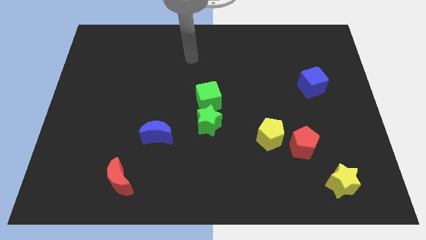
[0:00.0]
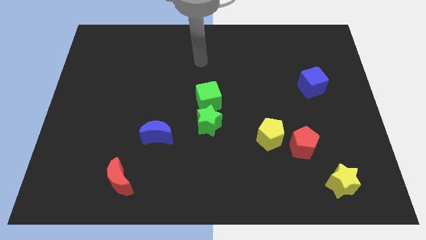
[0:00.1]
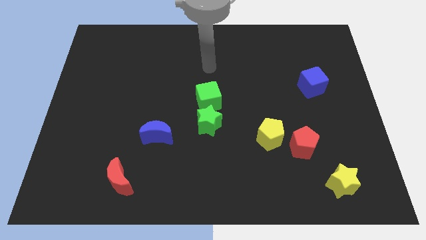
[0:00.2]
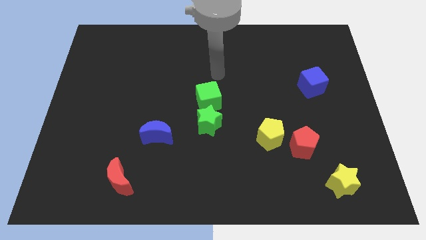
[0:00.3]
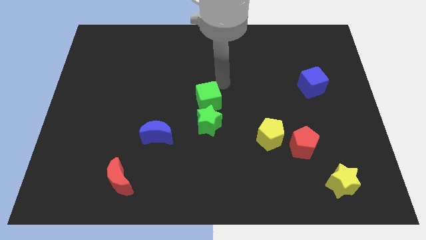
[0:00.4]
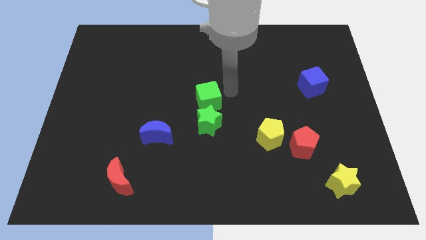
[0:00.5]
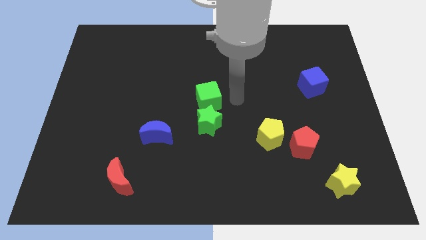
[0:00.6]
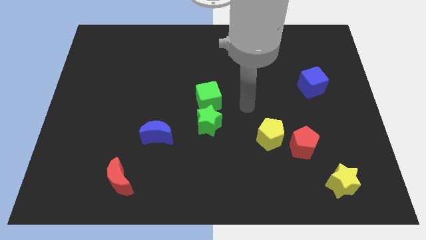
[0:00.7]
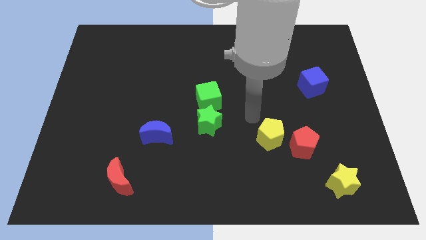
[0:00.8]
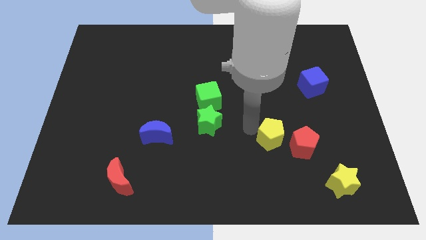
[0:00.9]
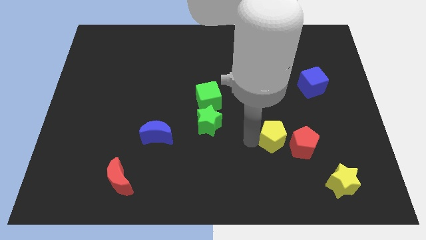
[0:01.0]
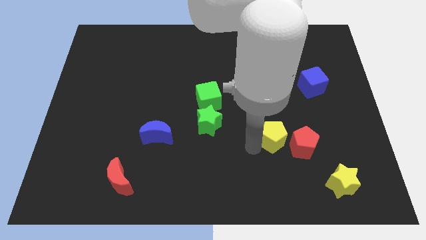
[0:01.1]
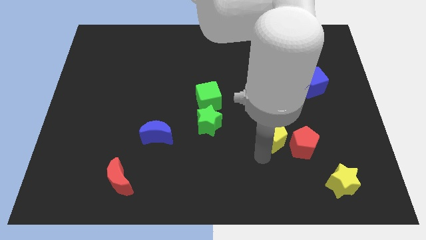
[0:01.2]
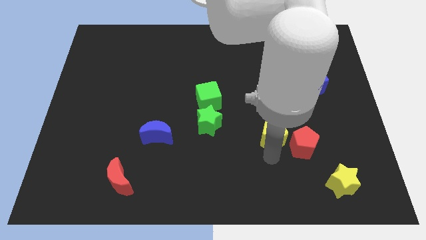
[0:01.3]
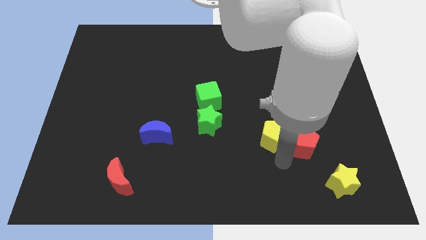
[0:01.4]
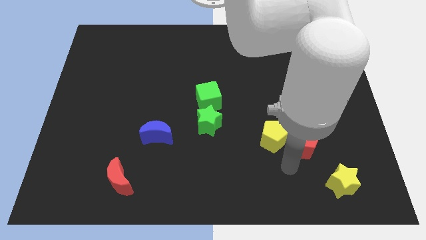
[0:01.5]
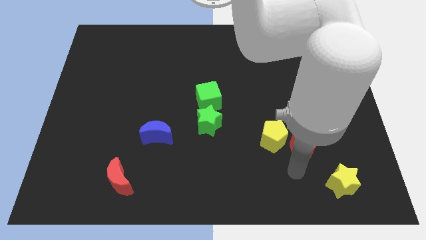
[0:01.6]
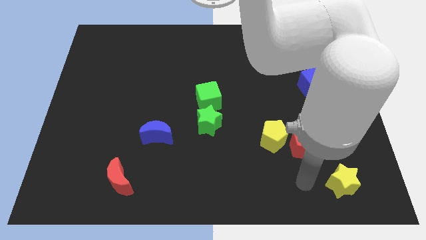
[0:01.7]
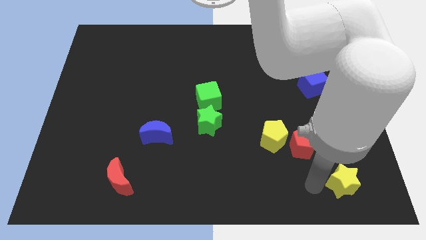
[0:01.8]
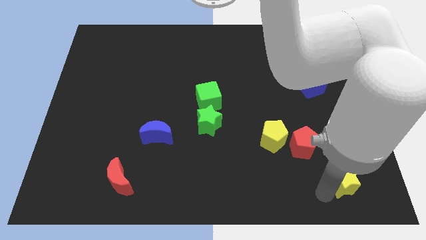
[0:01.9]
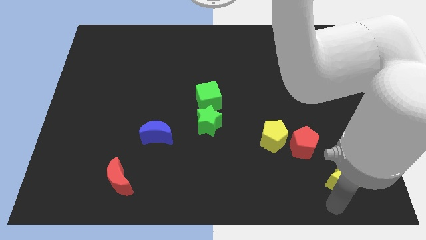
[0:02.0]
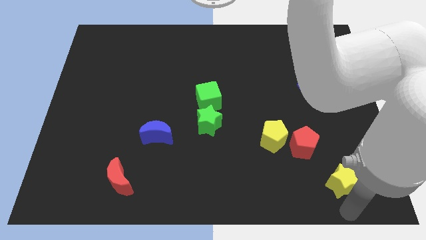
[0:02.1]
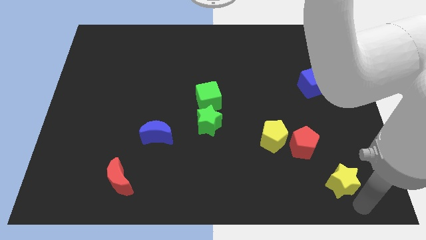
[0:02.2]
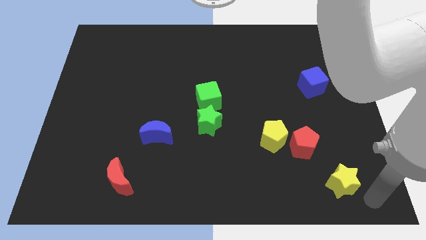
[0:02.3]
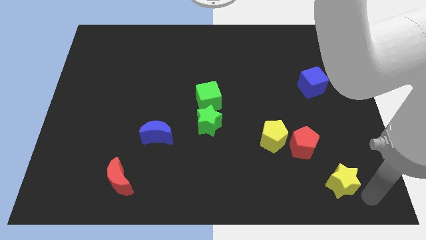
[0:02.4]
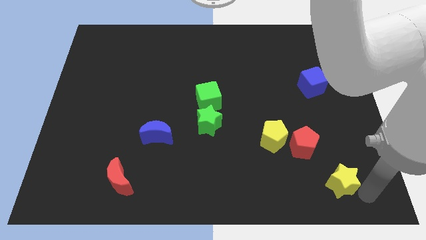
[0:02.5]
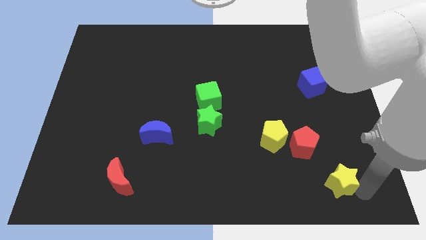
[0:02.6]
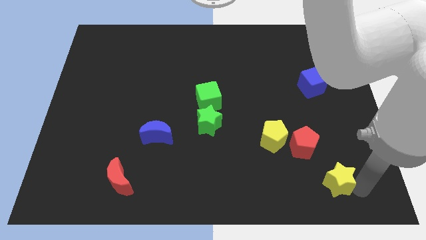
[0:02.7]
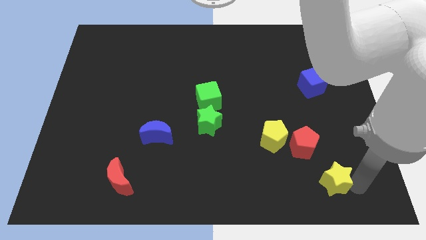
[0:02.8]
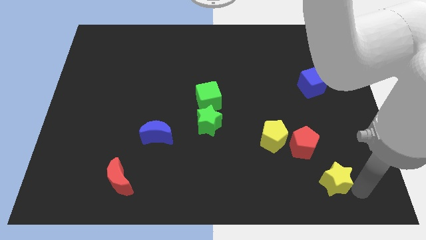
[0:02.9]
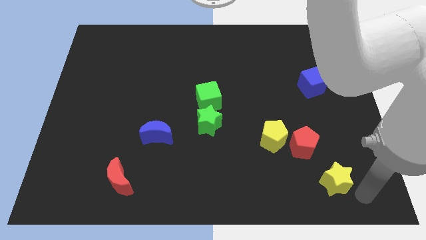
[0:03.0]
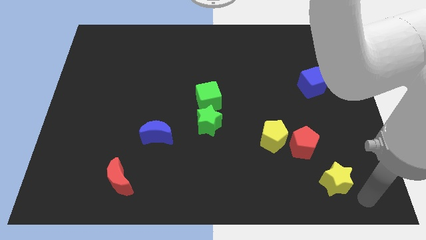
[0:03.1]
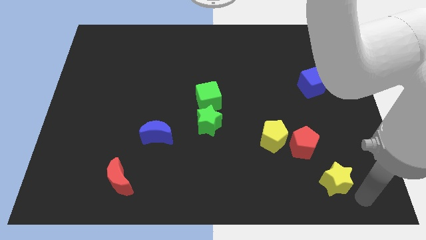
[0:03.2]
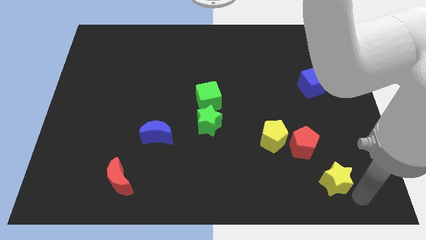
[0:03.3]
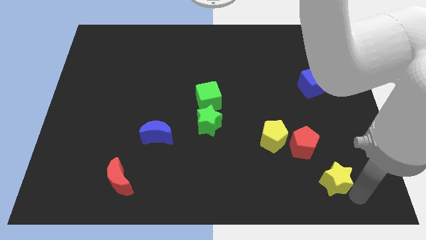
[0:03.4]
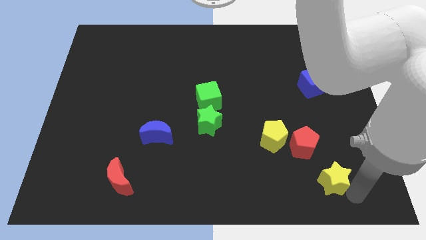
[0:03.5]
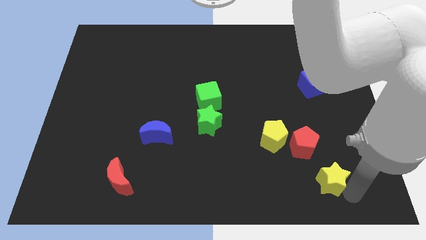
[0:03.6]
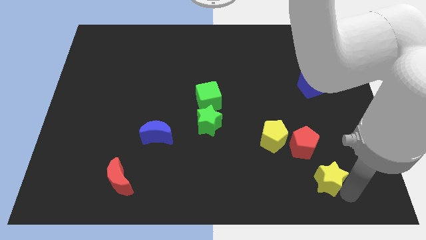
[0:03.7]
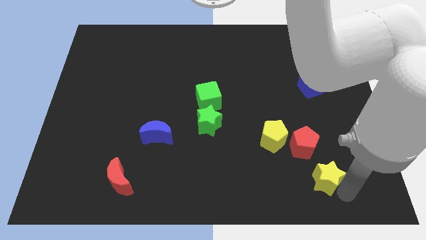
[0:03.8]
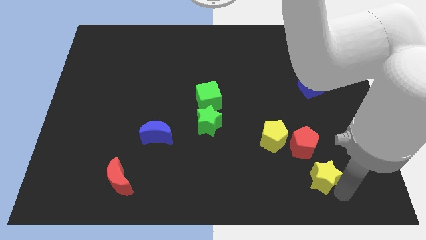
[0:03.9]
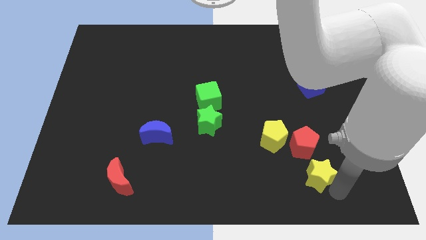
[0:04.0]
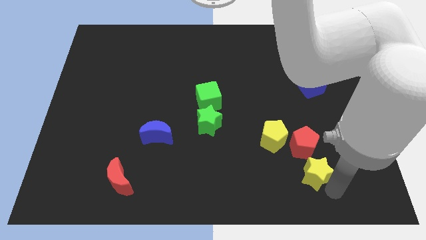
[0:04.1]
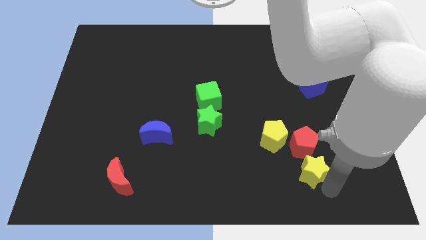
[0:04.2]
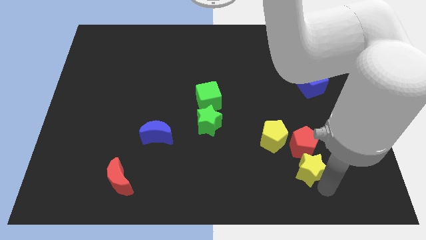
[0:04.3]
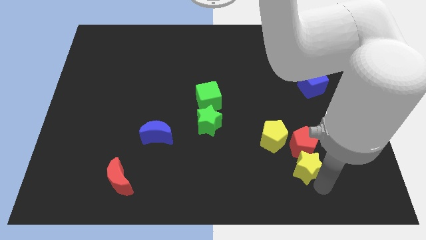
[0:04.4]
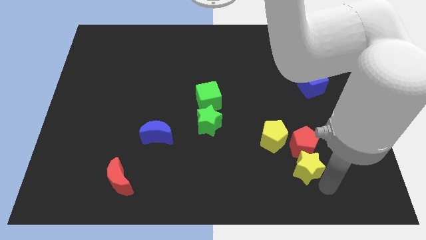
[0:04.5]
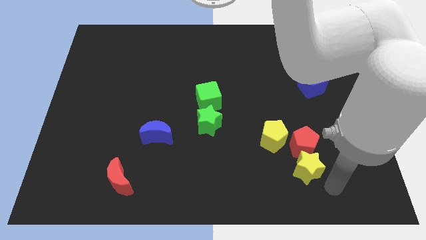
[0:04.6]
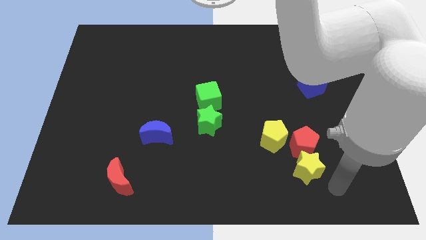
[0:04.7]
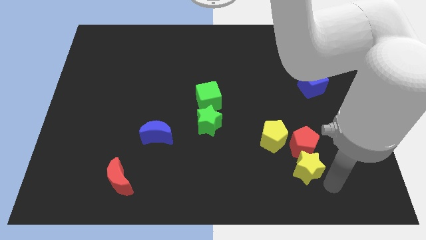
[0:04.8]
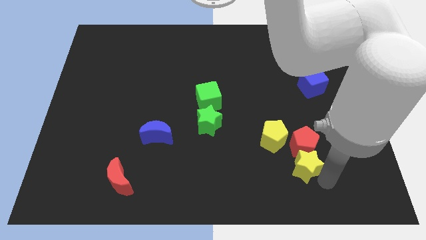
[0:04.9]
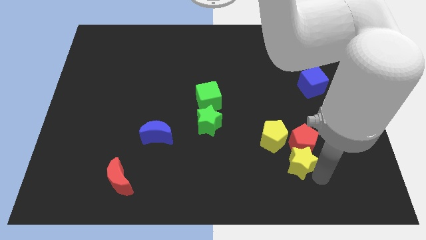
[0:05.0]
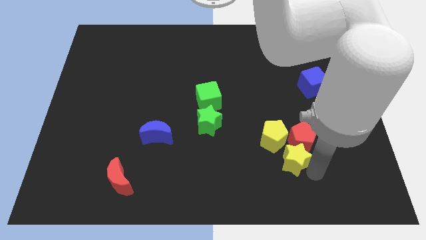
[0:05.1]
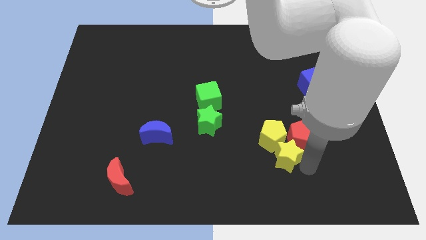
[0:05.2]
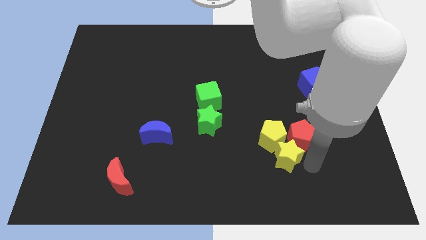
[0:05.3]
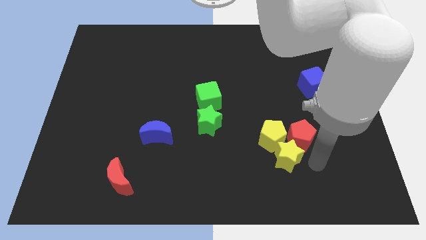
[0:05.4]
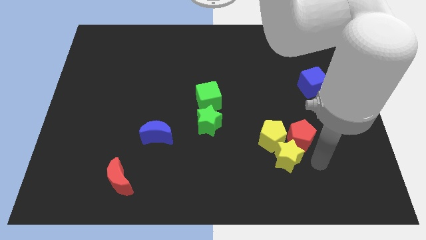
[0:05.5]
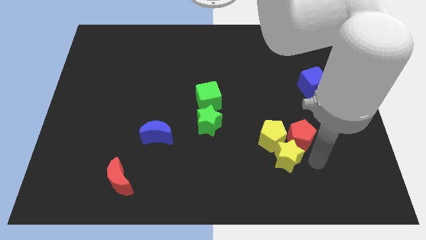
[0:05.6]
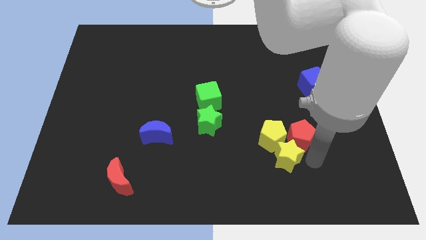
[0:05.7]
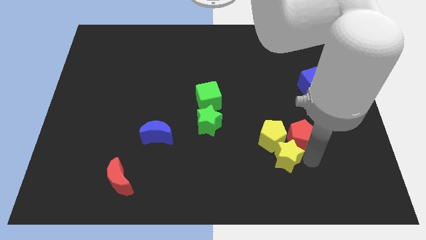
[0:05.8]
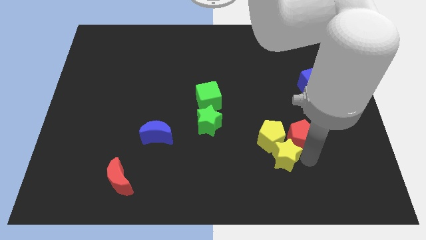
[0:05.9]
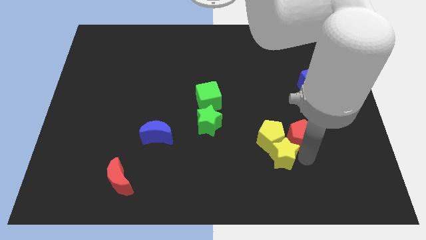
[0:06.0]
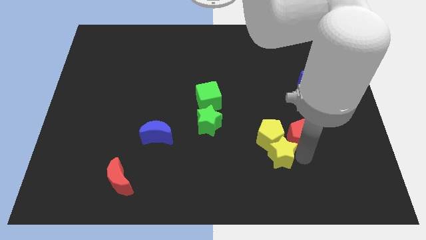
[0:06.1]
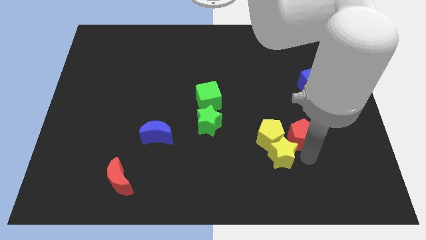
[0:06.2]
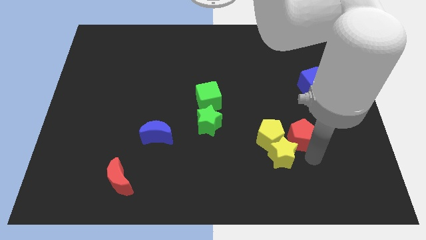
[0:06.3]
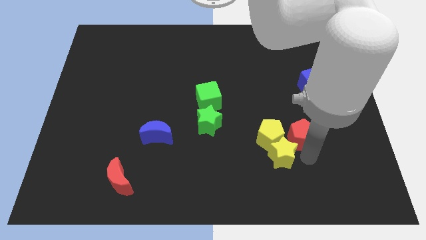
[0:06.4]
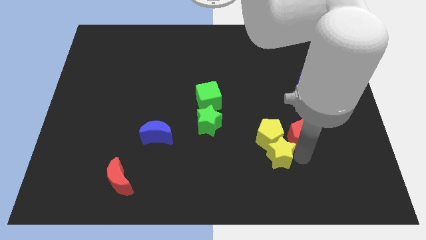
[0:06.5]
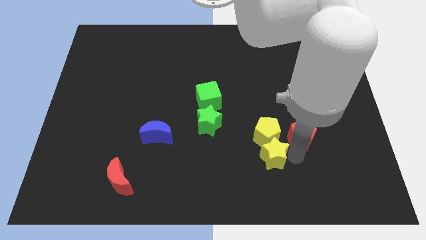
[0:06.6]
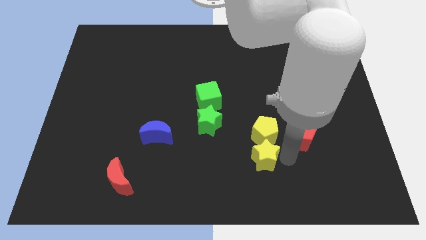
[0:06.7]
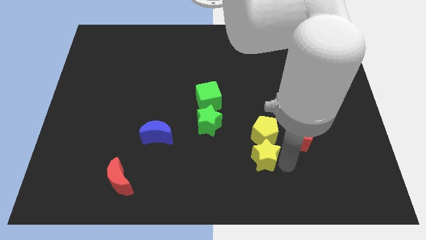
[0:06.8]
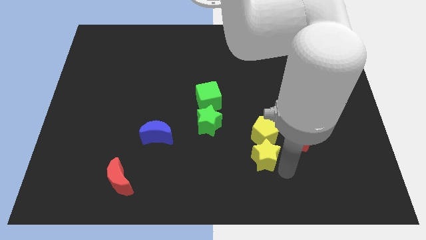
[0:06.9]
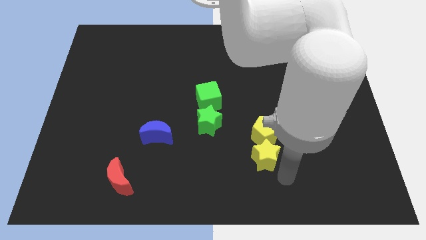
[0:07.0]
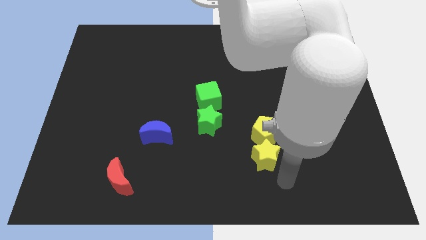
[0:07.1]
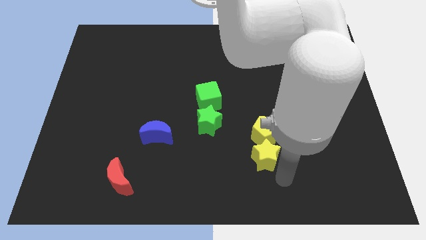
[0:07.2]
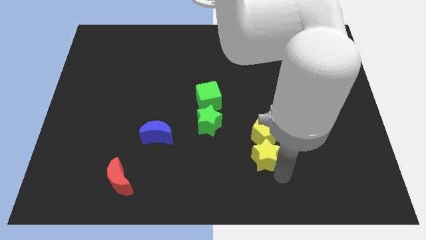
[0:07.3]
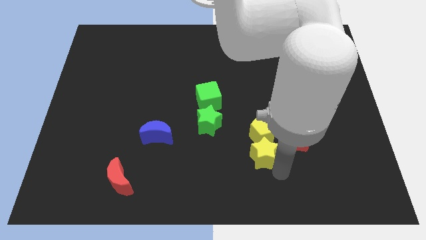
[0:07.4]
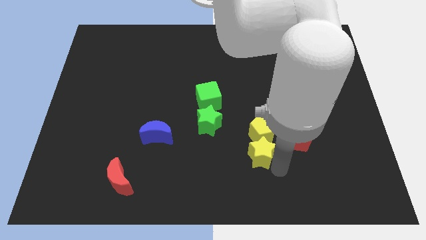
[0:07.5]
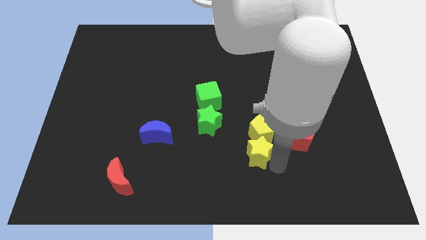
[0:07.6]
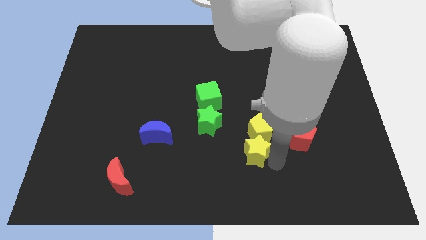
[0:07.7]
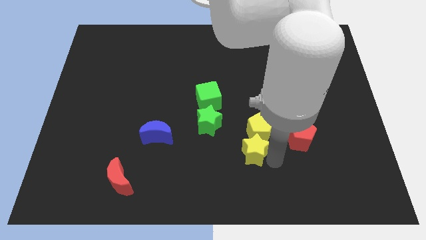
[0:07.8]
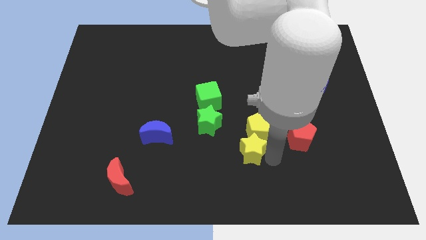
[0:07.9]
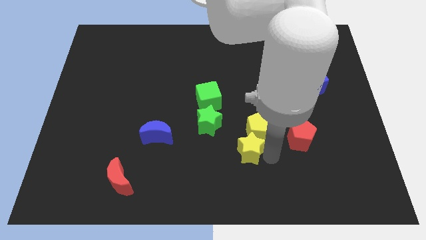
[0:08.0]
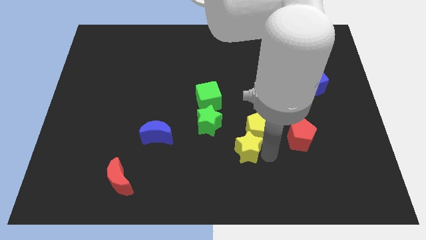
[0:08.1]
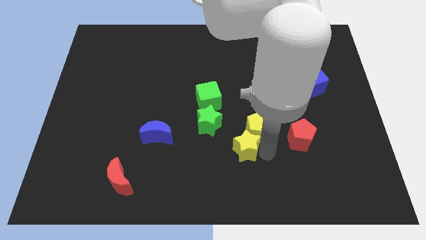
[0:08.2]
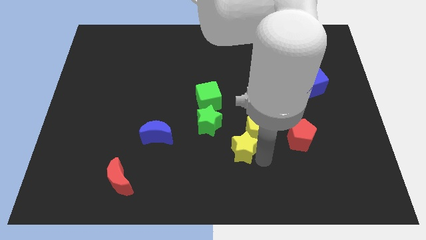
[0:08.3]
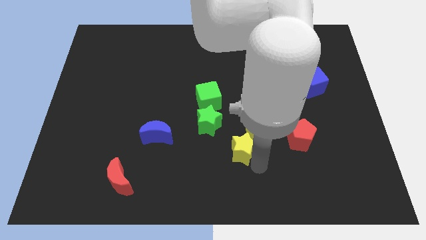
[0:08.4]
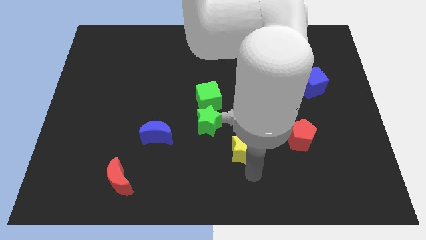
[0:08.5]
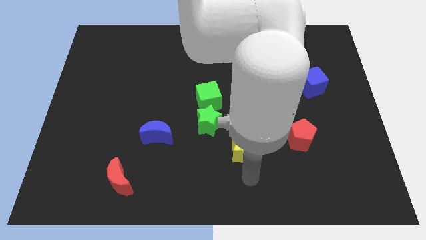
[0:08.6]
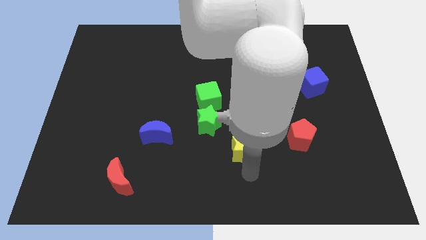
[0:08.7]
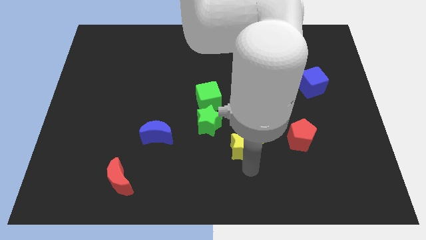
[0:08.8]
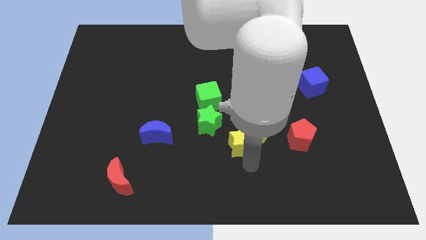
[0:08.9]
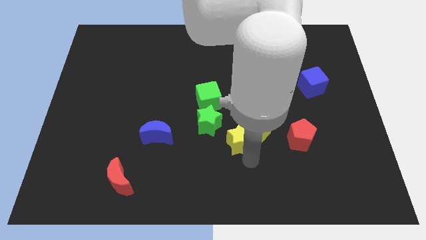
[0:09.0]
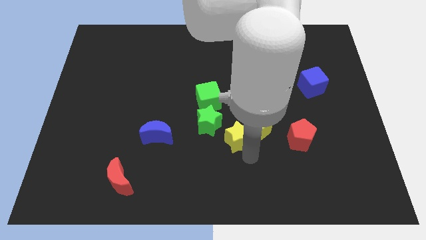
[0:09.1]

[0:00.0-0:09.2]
slide the yellow star diagonally upwards and to the left
